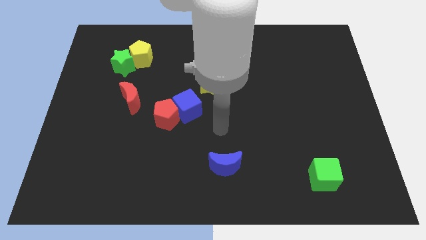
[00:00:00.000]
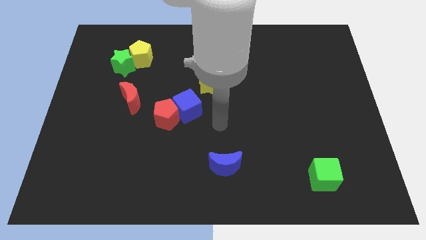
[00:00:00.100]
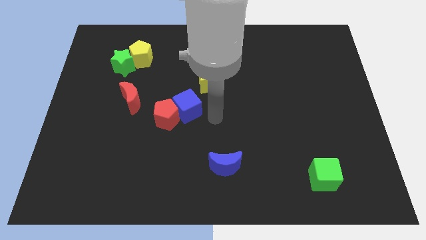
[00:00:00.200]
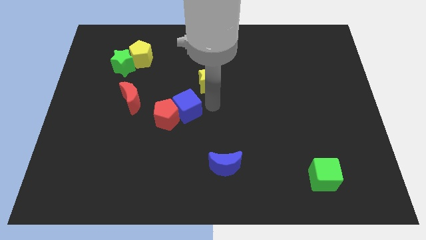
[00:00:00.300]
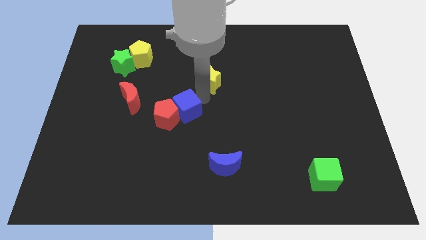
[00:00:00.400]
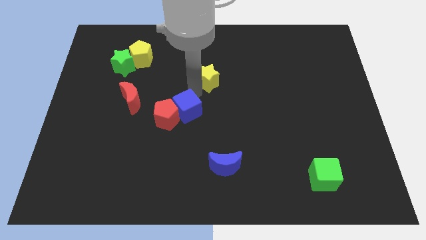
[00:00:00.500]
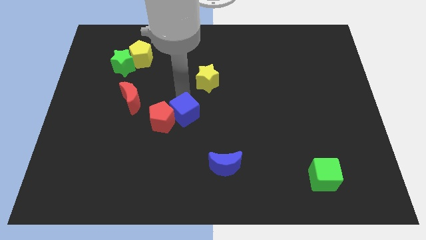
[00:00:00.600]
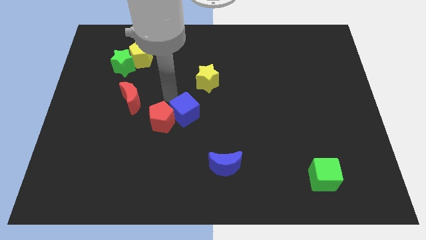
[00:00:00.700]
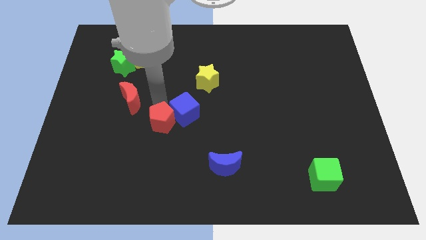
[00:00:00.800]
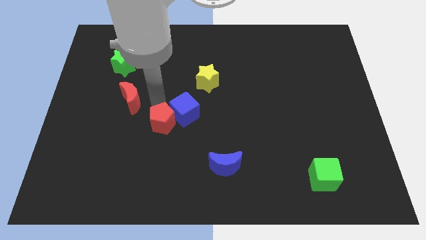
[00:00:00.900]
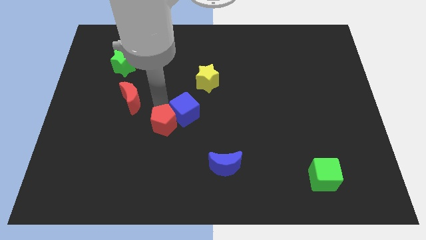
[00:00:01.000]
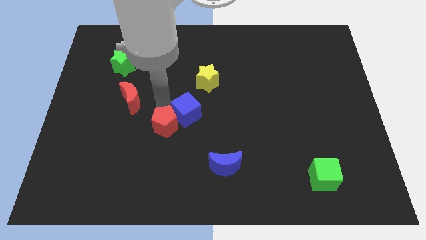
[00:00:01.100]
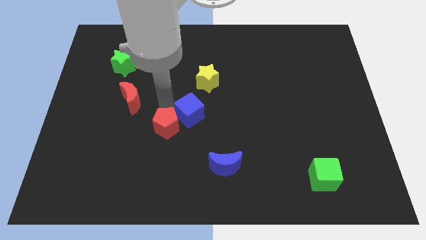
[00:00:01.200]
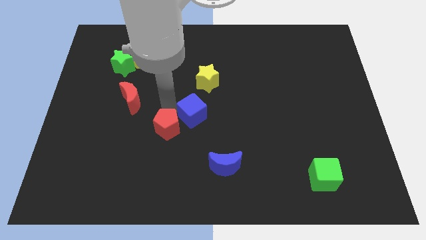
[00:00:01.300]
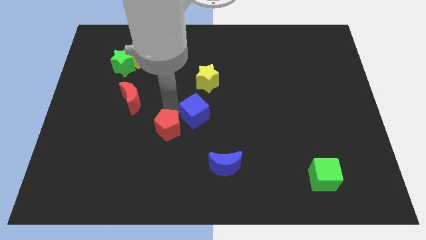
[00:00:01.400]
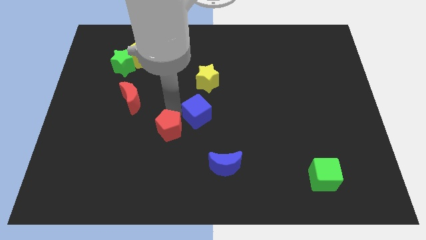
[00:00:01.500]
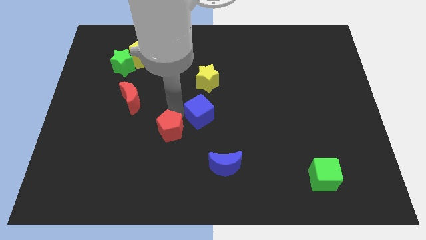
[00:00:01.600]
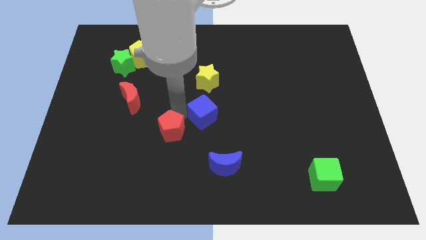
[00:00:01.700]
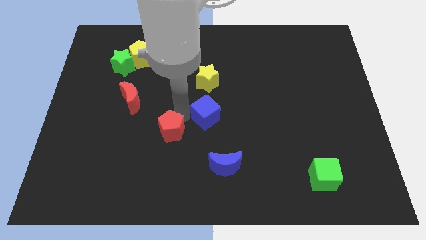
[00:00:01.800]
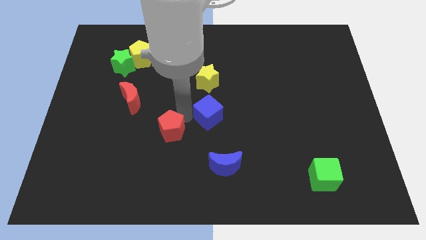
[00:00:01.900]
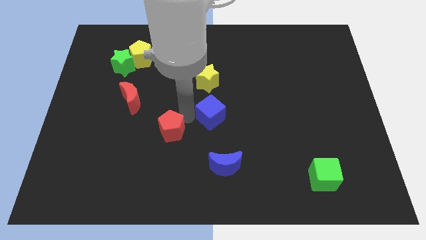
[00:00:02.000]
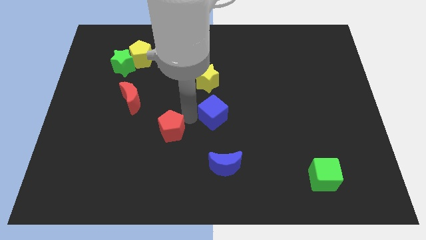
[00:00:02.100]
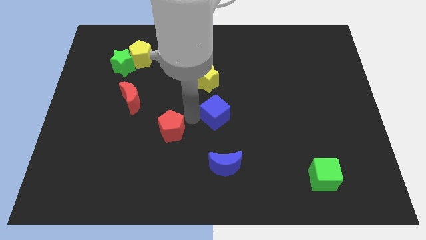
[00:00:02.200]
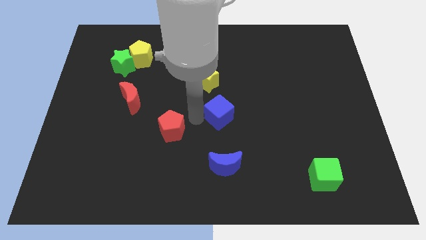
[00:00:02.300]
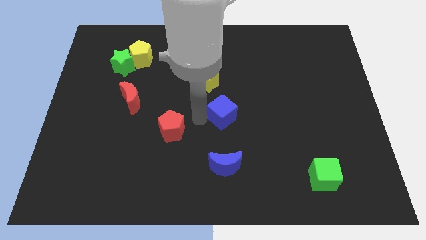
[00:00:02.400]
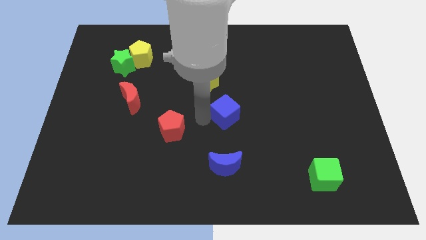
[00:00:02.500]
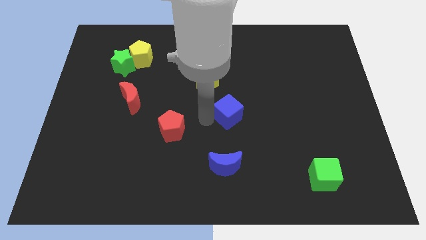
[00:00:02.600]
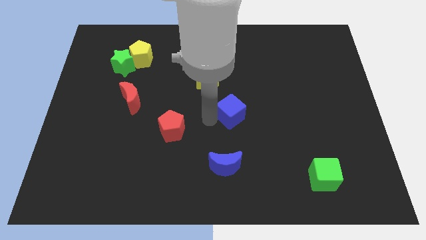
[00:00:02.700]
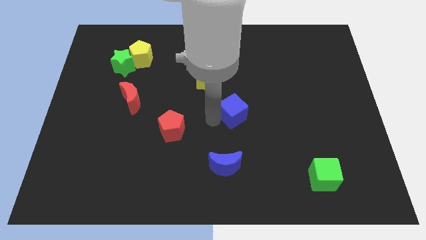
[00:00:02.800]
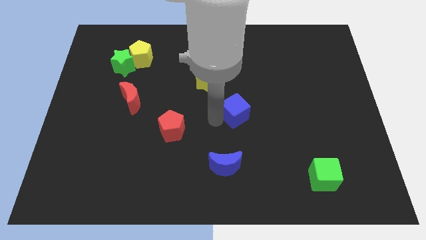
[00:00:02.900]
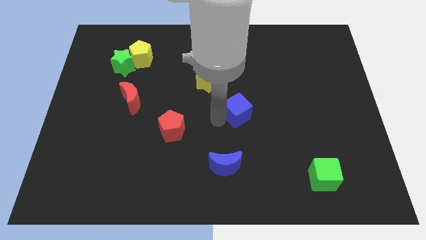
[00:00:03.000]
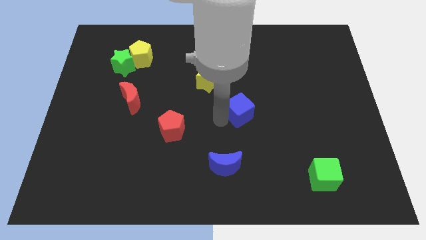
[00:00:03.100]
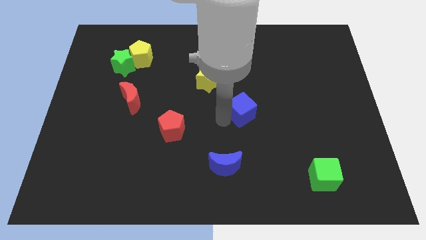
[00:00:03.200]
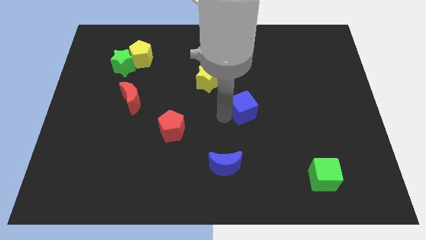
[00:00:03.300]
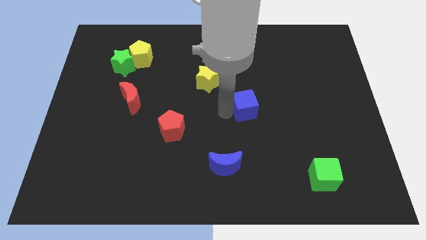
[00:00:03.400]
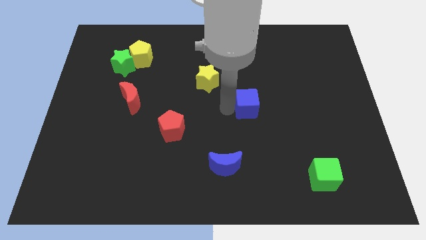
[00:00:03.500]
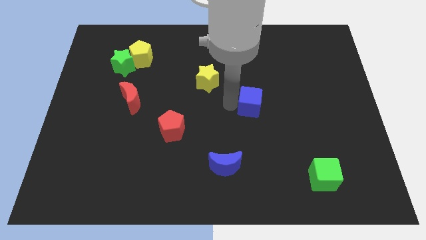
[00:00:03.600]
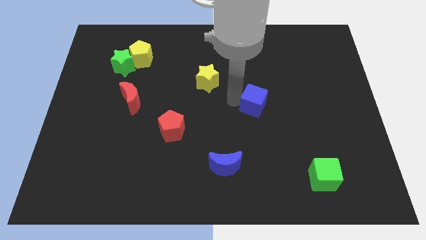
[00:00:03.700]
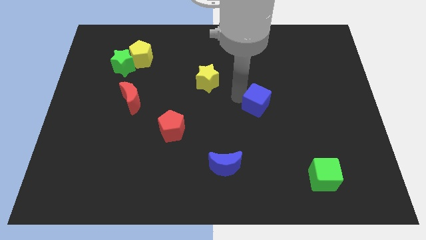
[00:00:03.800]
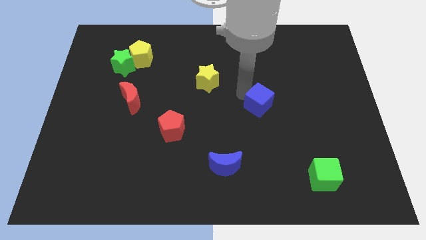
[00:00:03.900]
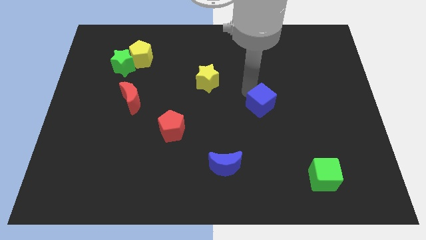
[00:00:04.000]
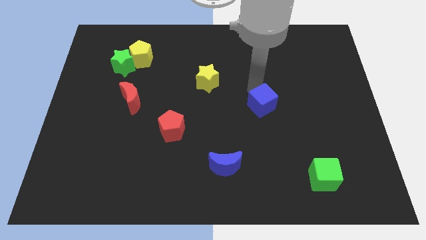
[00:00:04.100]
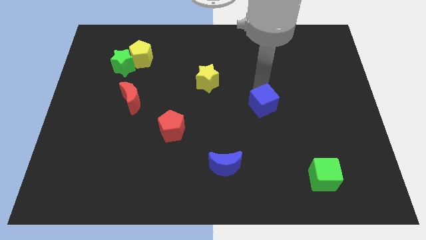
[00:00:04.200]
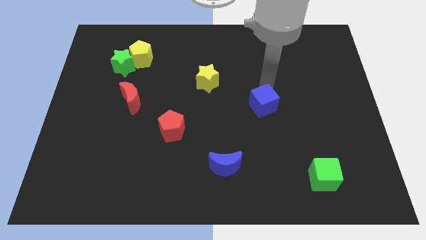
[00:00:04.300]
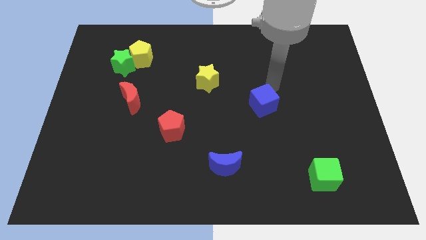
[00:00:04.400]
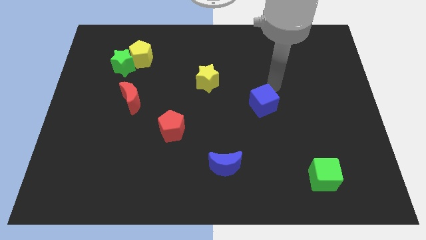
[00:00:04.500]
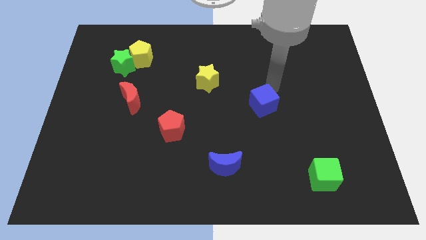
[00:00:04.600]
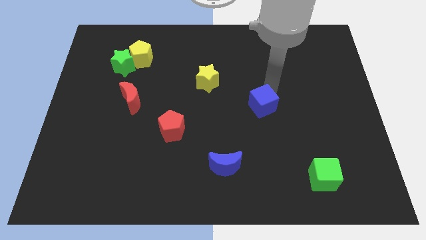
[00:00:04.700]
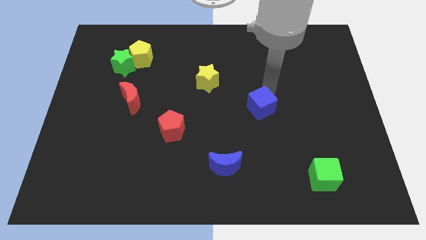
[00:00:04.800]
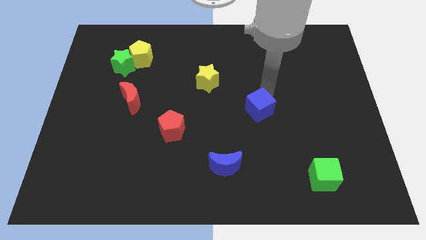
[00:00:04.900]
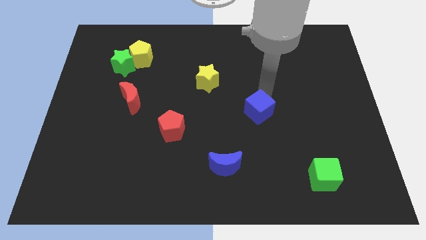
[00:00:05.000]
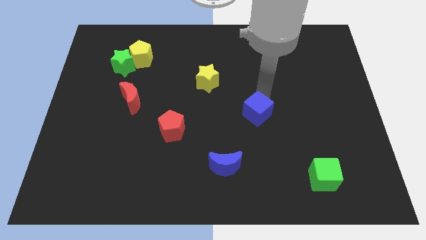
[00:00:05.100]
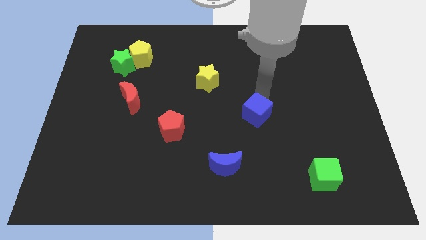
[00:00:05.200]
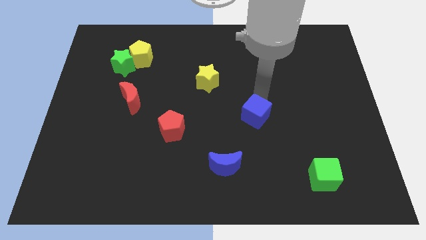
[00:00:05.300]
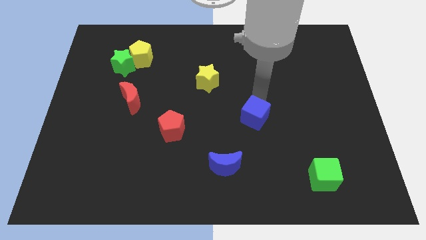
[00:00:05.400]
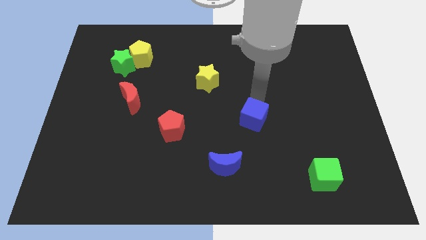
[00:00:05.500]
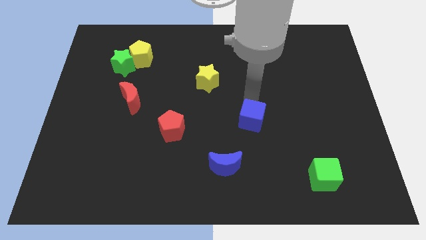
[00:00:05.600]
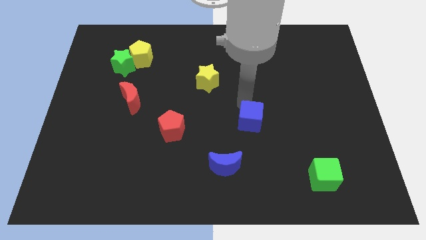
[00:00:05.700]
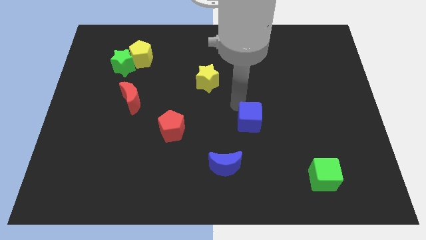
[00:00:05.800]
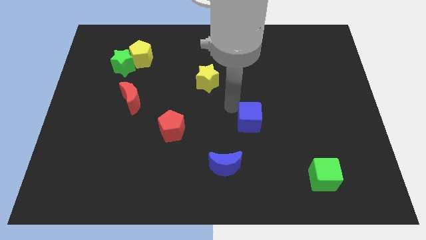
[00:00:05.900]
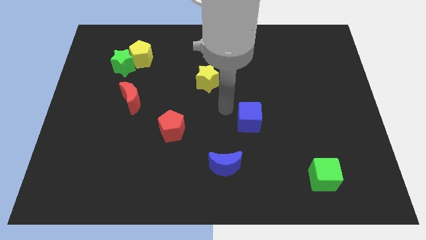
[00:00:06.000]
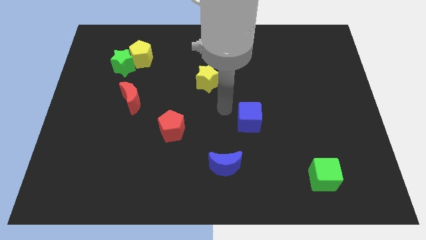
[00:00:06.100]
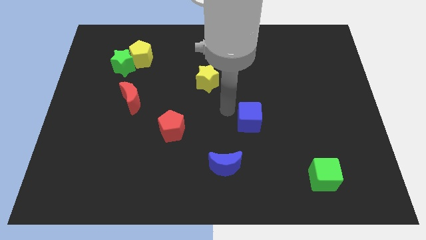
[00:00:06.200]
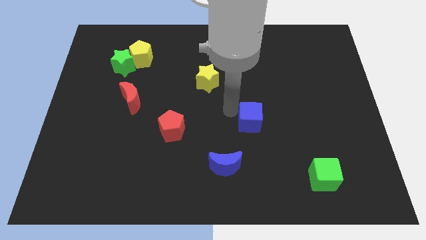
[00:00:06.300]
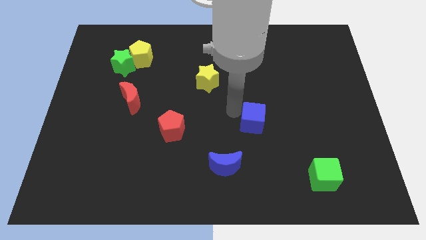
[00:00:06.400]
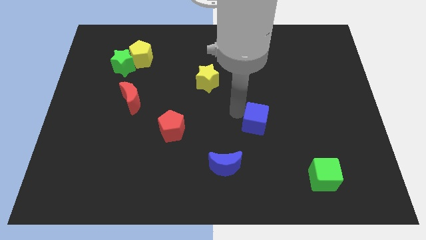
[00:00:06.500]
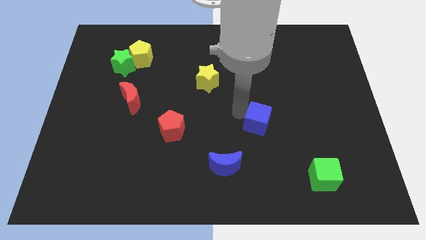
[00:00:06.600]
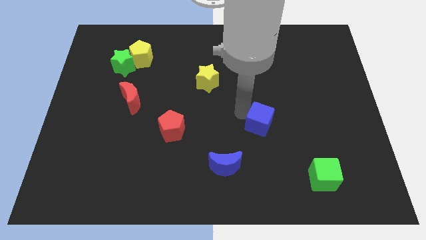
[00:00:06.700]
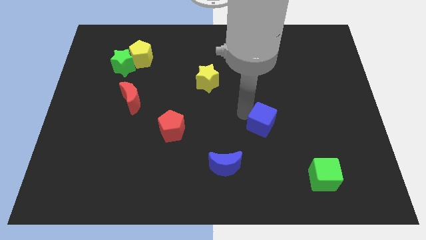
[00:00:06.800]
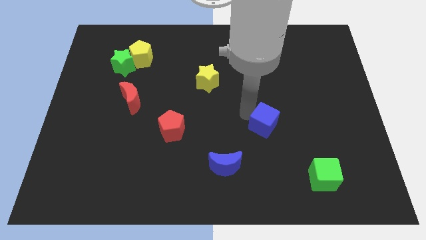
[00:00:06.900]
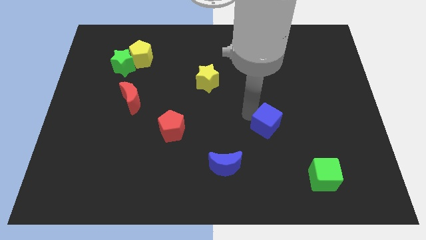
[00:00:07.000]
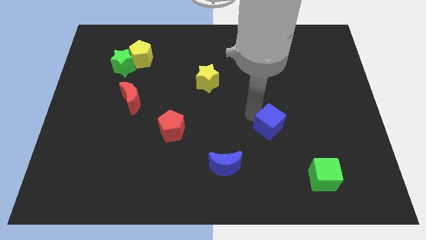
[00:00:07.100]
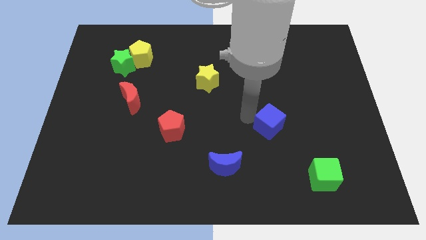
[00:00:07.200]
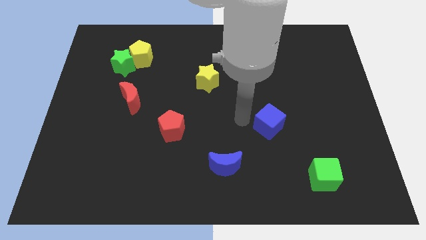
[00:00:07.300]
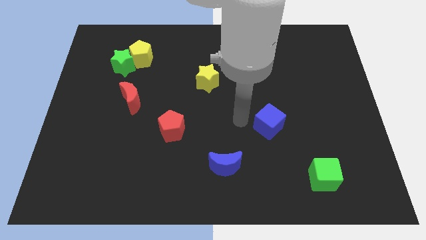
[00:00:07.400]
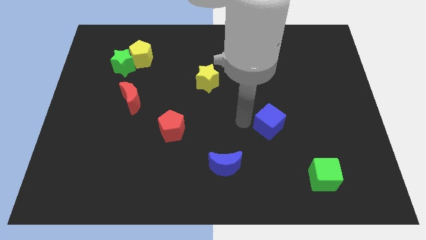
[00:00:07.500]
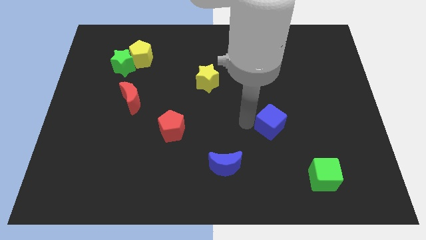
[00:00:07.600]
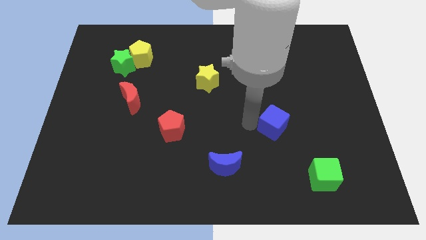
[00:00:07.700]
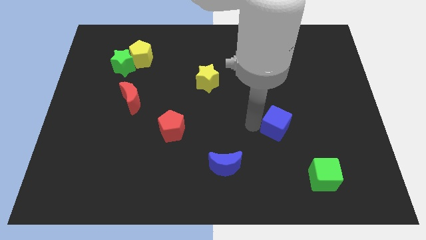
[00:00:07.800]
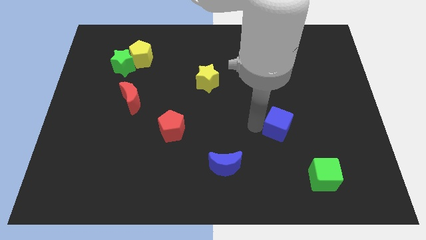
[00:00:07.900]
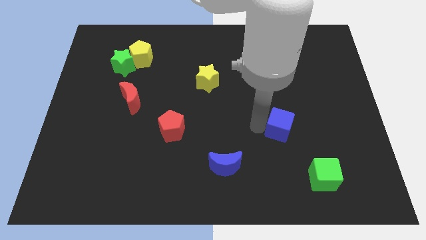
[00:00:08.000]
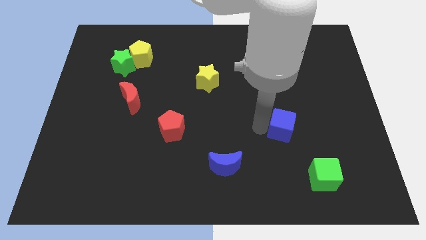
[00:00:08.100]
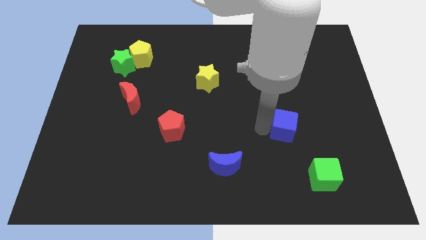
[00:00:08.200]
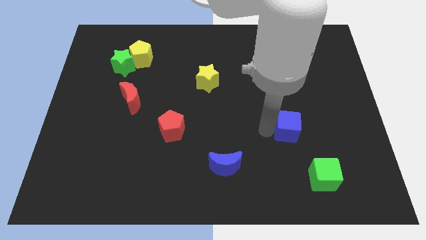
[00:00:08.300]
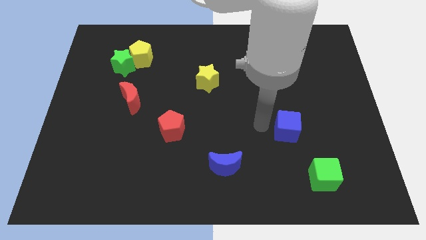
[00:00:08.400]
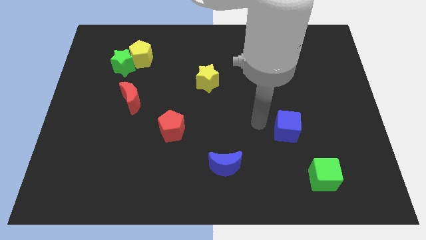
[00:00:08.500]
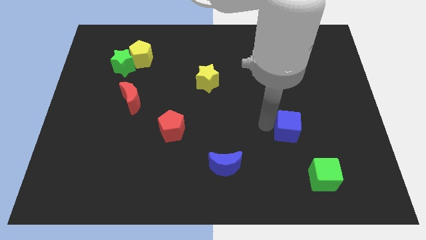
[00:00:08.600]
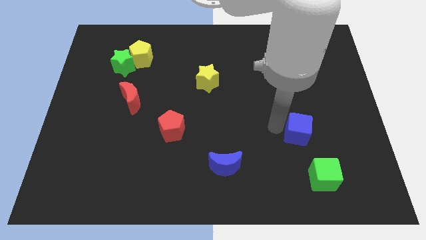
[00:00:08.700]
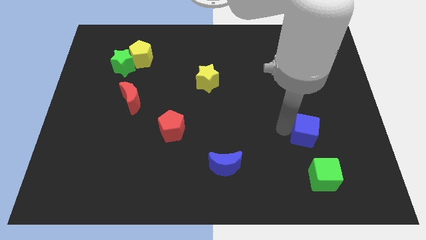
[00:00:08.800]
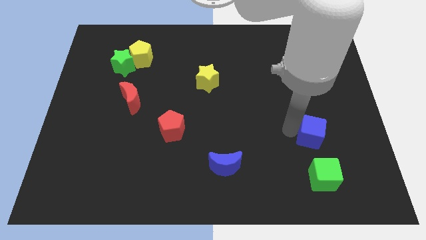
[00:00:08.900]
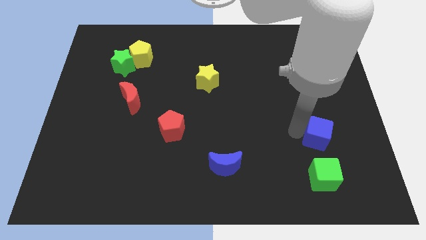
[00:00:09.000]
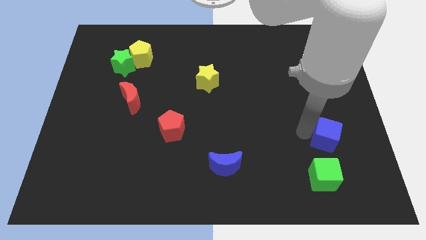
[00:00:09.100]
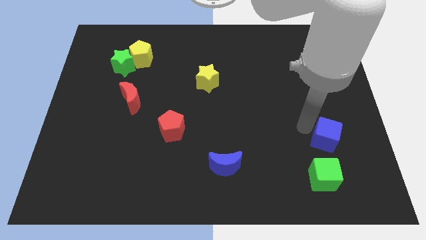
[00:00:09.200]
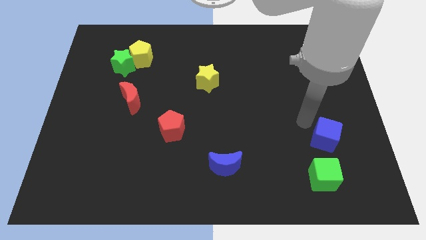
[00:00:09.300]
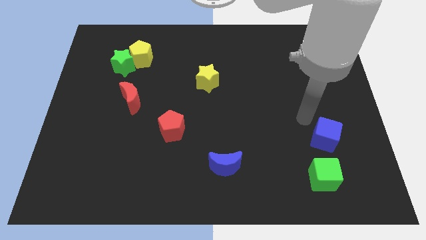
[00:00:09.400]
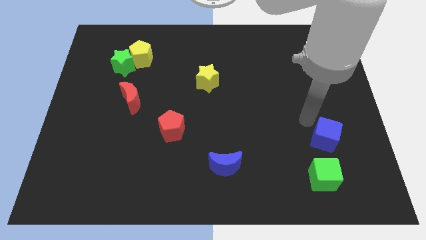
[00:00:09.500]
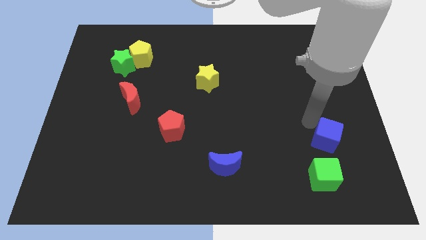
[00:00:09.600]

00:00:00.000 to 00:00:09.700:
slide the blue cube to the top right side of the green cube
